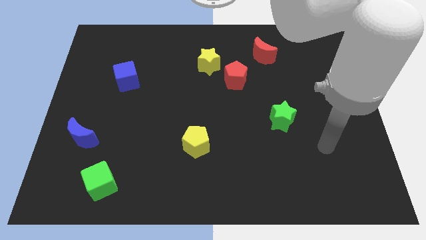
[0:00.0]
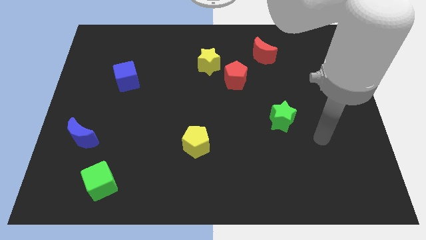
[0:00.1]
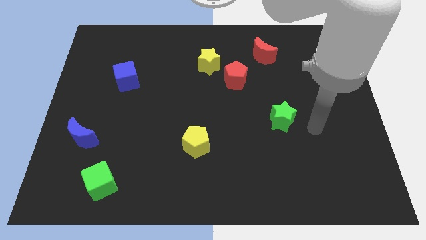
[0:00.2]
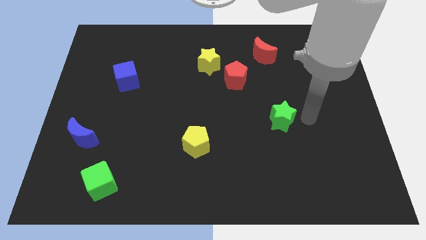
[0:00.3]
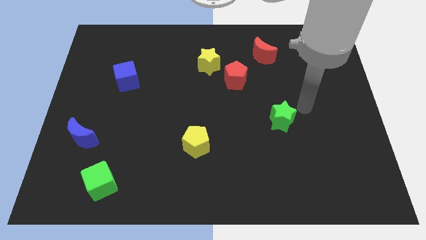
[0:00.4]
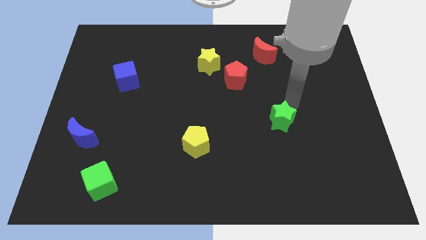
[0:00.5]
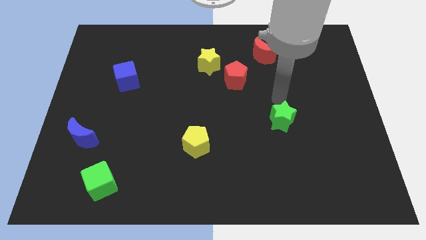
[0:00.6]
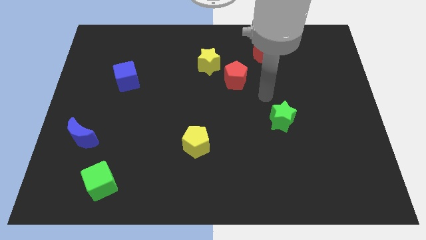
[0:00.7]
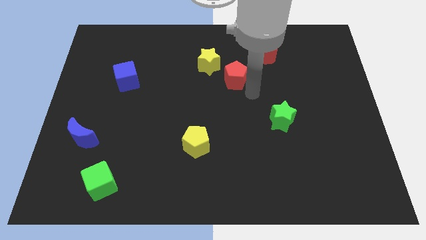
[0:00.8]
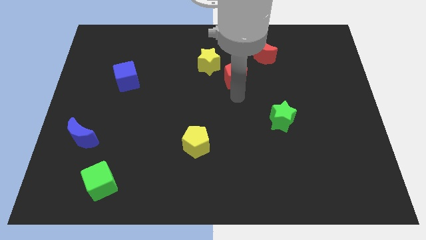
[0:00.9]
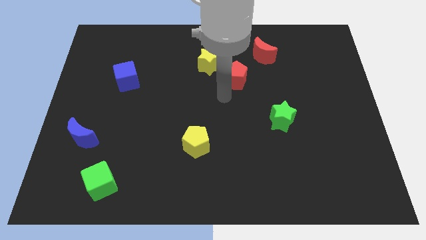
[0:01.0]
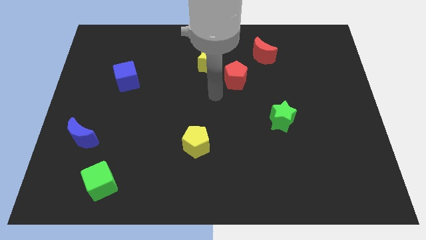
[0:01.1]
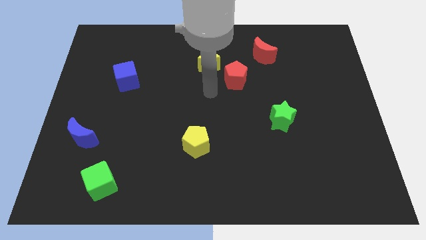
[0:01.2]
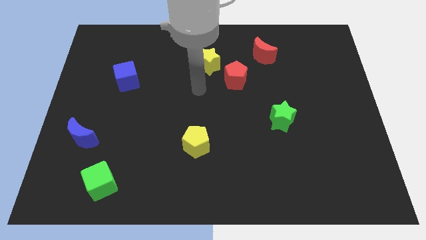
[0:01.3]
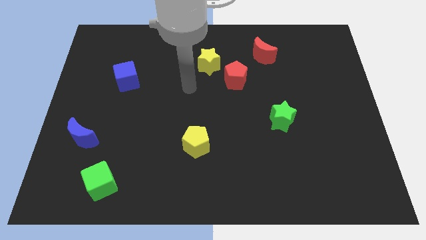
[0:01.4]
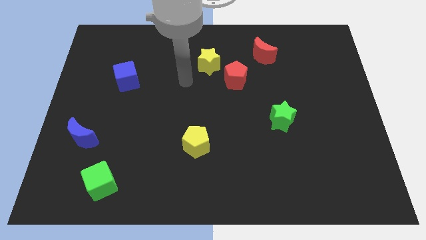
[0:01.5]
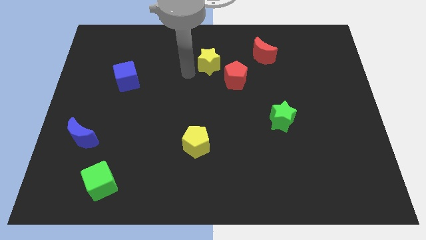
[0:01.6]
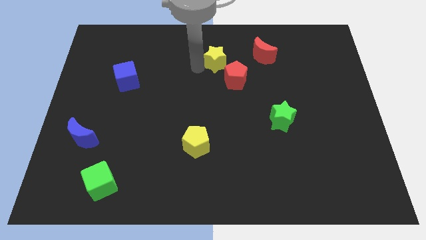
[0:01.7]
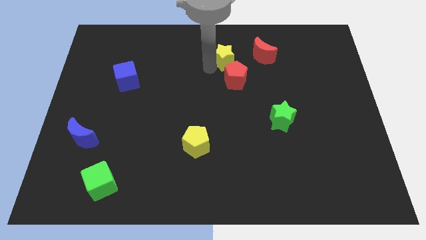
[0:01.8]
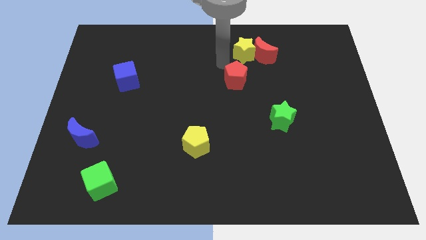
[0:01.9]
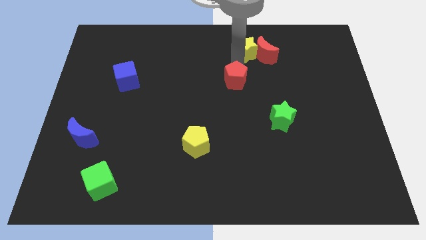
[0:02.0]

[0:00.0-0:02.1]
move the red pentagon away from the yellow star

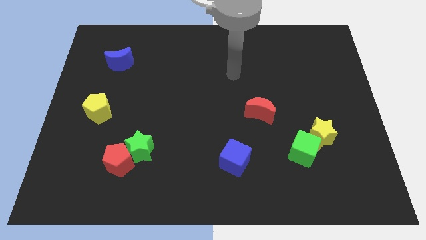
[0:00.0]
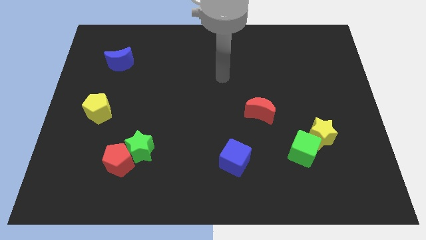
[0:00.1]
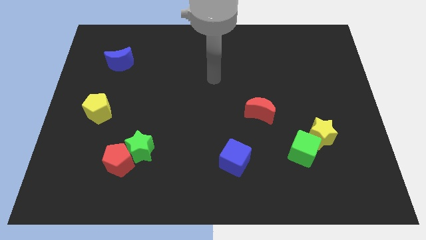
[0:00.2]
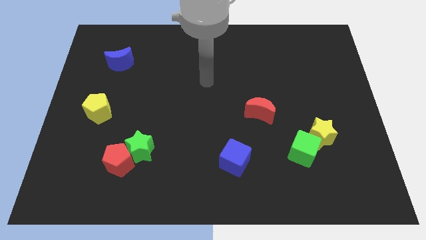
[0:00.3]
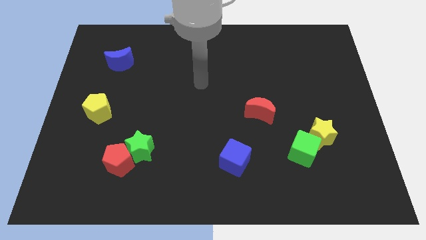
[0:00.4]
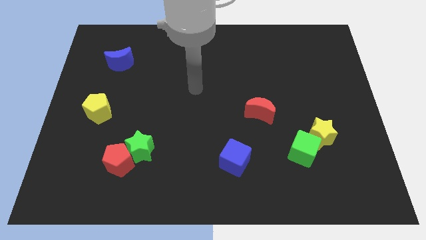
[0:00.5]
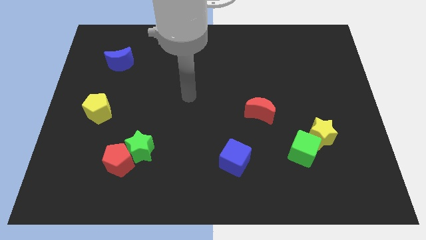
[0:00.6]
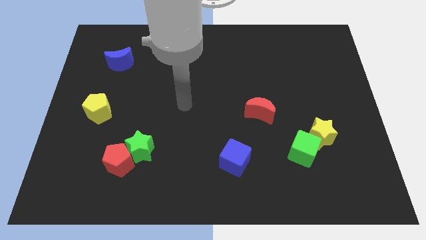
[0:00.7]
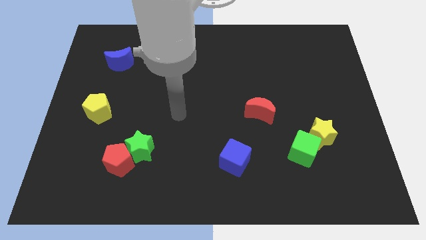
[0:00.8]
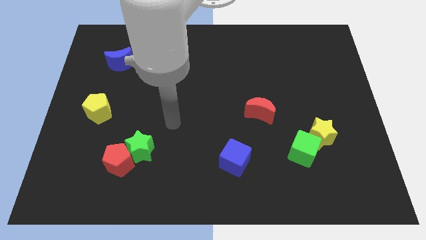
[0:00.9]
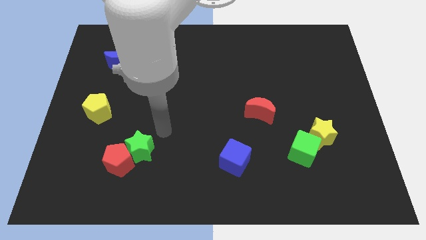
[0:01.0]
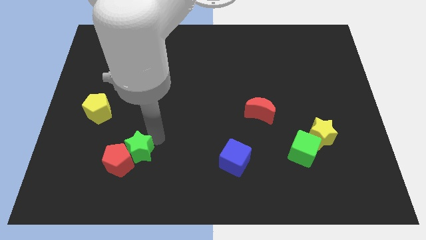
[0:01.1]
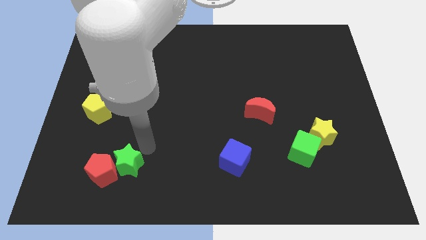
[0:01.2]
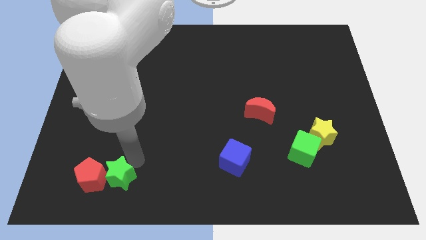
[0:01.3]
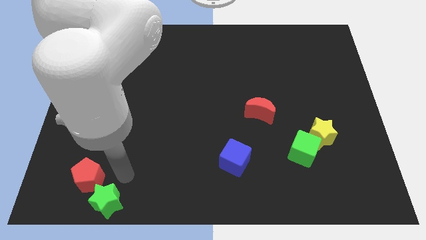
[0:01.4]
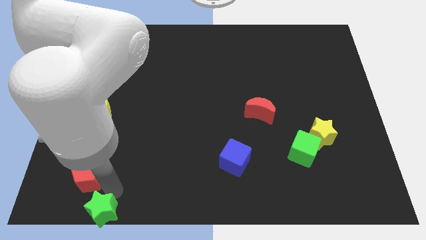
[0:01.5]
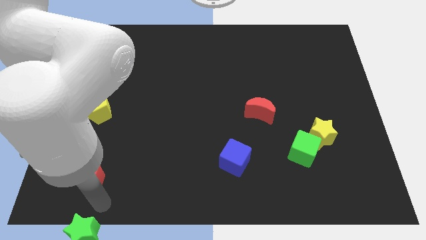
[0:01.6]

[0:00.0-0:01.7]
separate the red pentagon from the green star

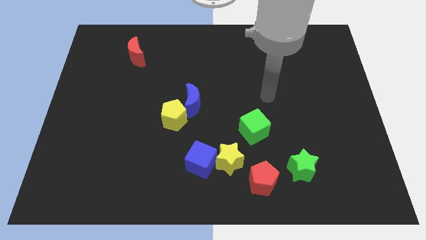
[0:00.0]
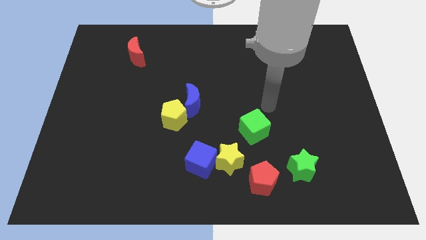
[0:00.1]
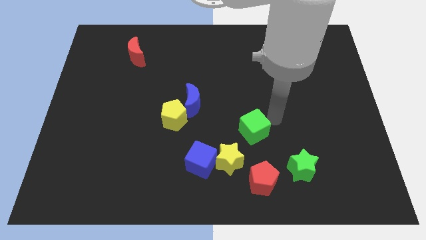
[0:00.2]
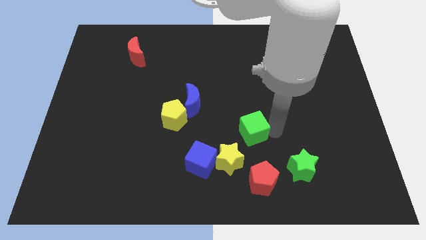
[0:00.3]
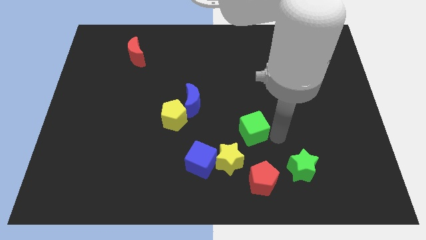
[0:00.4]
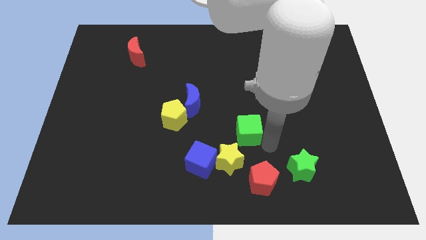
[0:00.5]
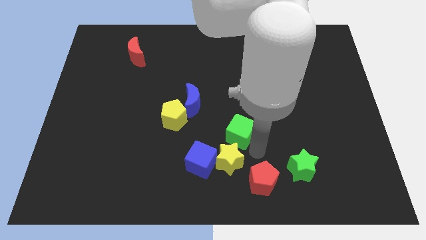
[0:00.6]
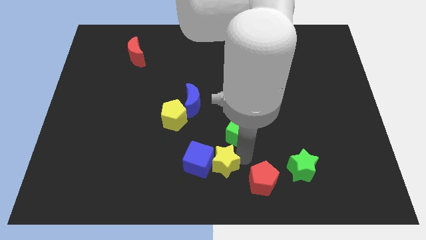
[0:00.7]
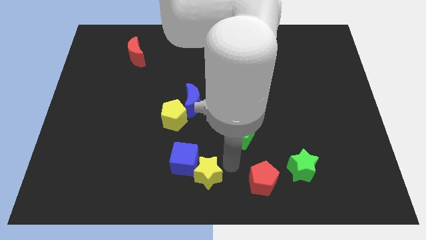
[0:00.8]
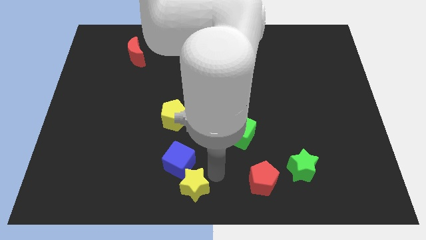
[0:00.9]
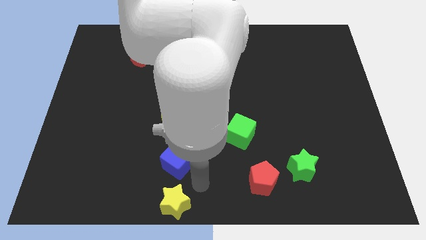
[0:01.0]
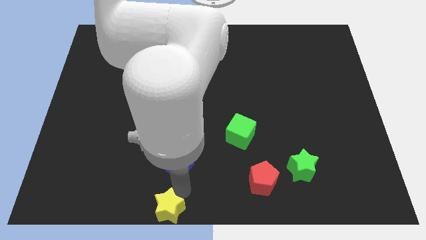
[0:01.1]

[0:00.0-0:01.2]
move the blue cube away from the yellow star

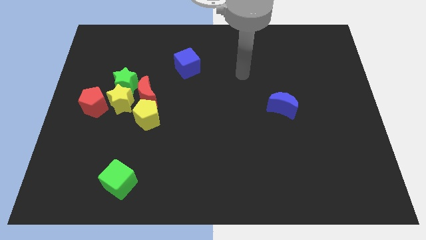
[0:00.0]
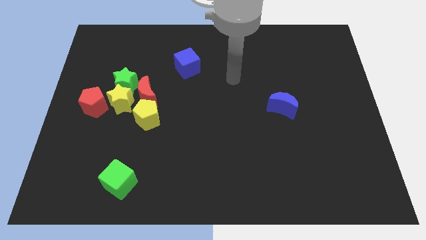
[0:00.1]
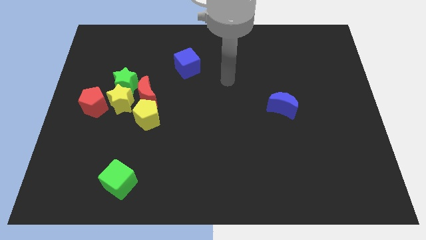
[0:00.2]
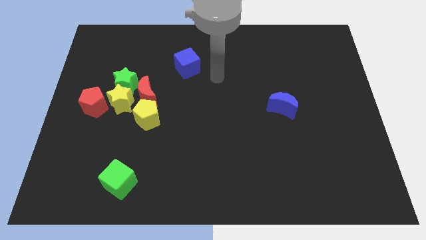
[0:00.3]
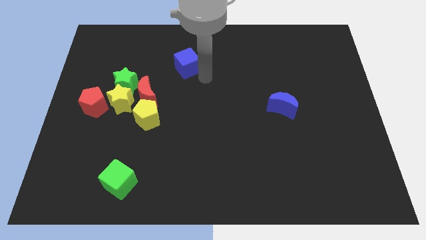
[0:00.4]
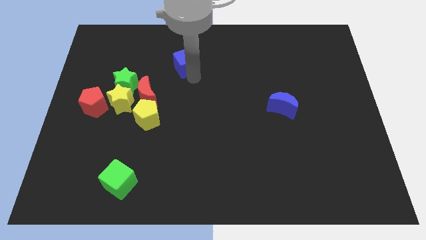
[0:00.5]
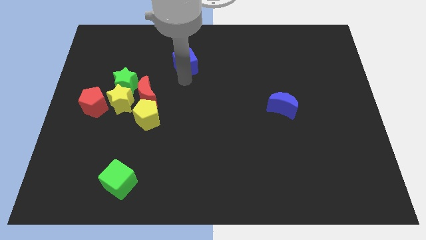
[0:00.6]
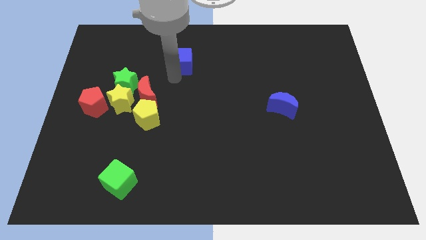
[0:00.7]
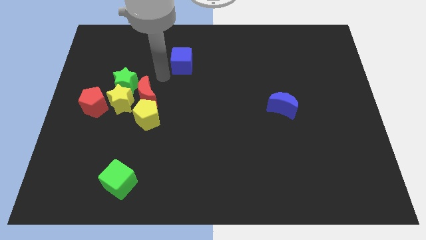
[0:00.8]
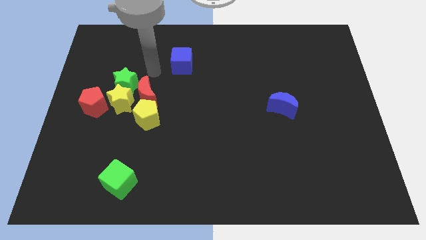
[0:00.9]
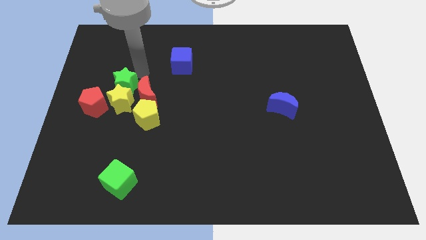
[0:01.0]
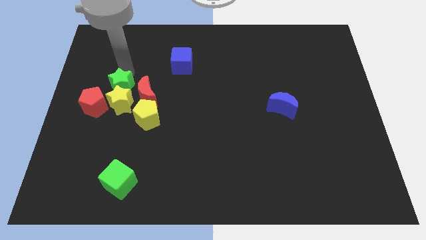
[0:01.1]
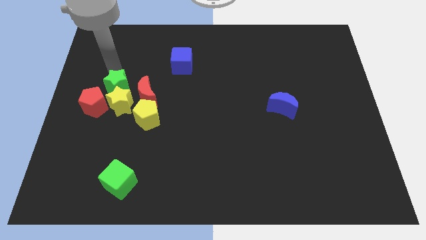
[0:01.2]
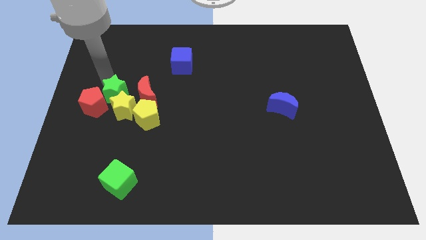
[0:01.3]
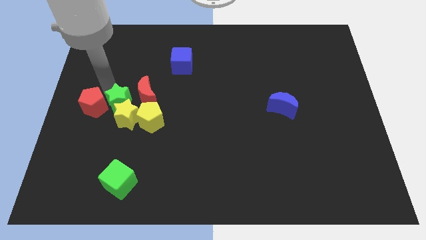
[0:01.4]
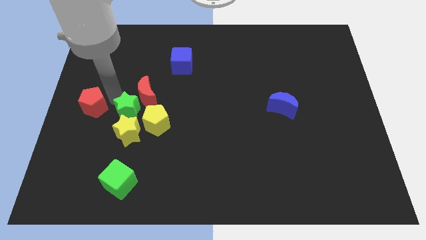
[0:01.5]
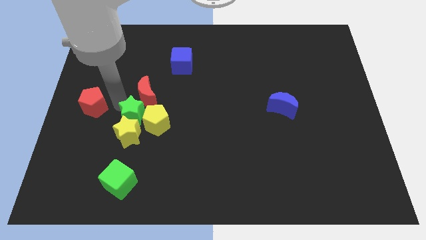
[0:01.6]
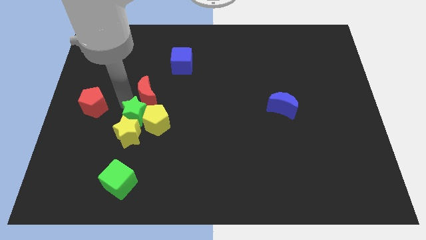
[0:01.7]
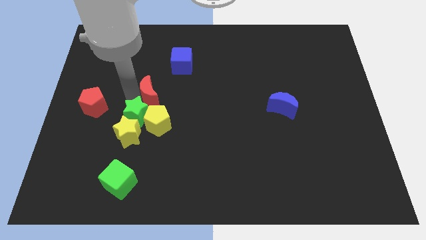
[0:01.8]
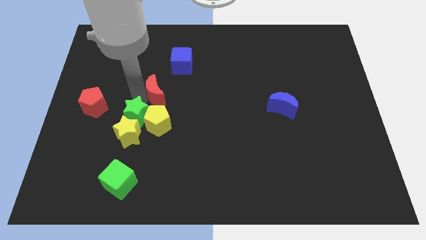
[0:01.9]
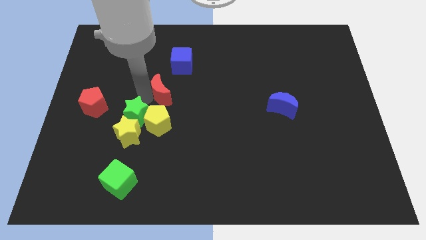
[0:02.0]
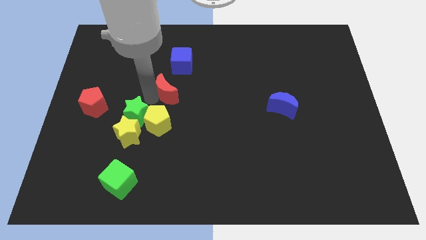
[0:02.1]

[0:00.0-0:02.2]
pull the red moon apart from the yellow star, yellow pentagon, and green star

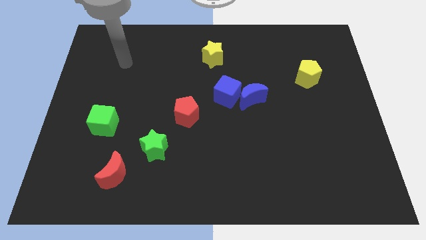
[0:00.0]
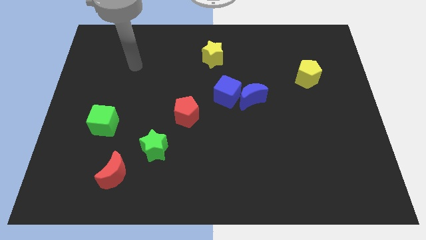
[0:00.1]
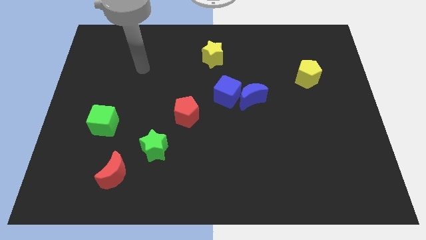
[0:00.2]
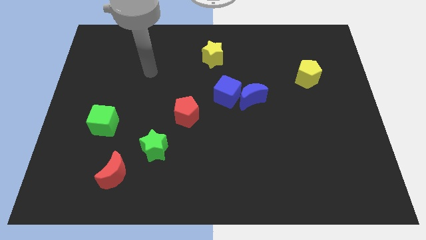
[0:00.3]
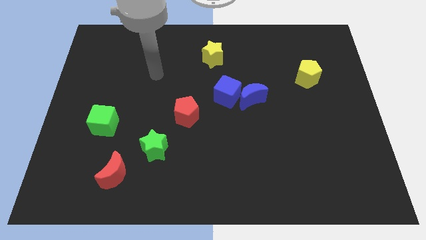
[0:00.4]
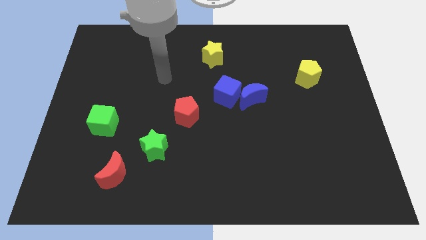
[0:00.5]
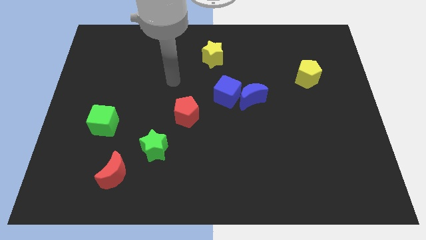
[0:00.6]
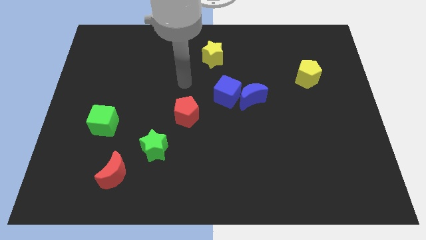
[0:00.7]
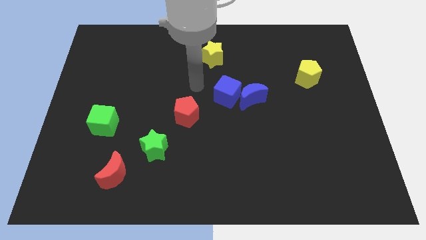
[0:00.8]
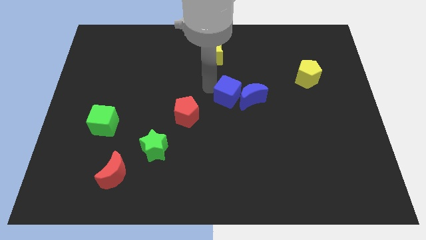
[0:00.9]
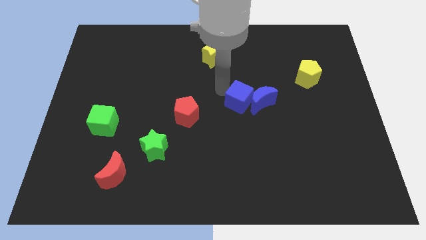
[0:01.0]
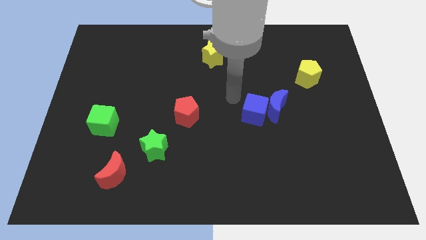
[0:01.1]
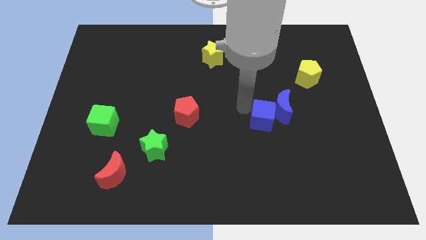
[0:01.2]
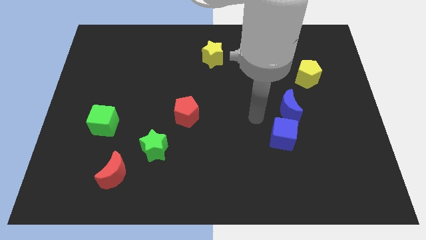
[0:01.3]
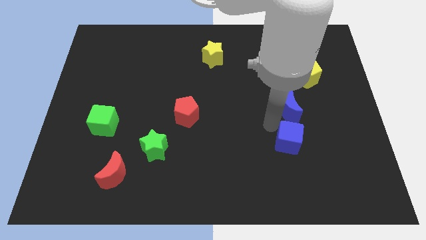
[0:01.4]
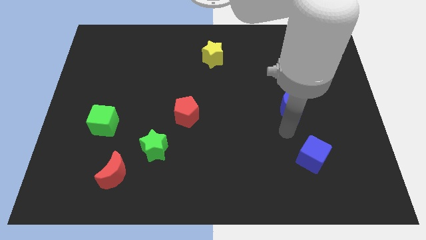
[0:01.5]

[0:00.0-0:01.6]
separate the blue moon from the blue cube

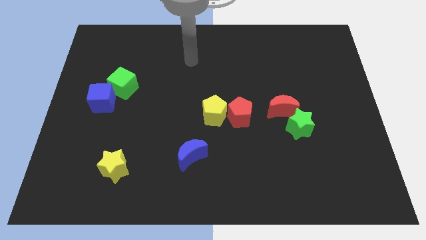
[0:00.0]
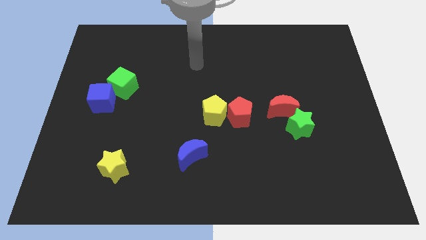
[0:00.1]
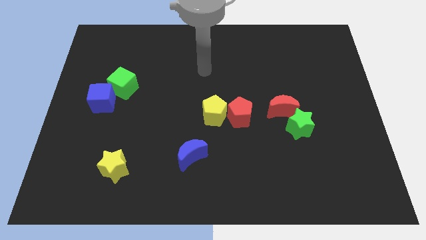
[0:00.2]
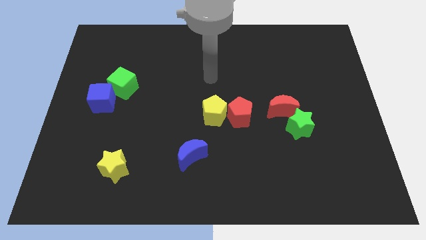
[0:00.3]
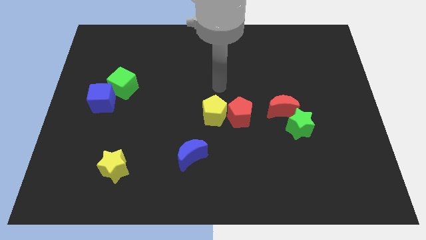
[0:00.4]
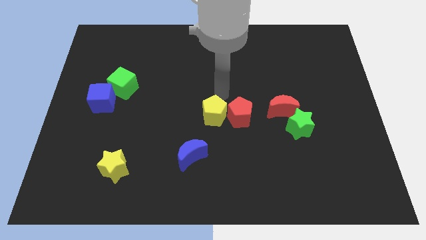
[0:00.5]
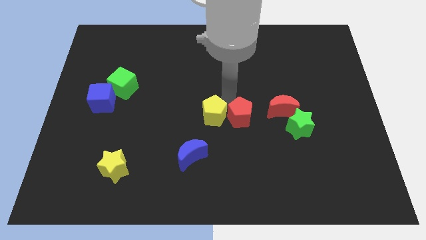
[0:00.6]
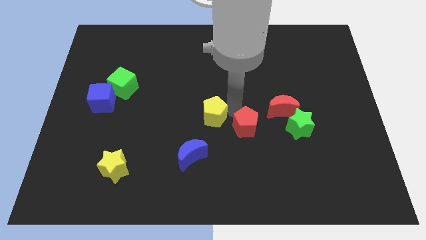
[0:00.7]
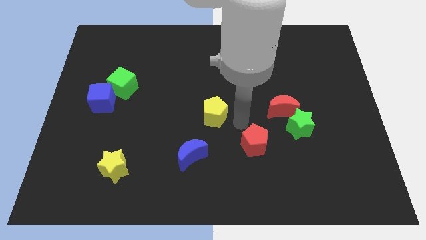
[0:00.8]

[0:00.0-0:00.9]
pull the yellow pentagon apart from the red pentagon
